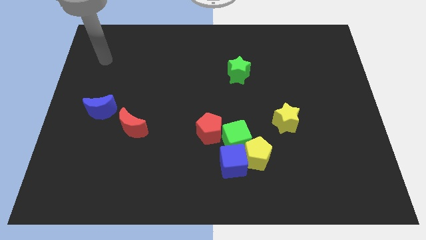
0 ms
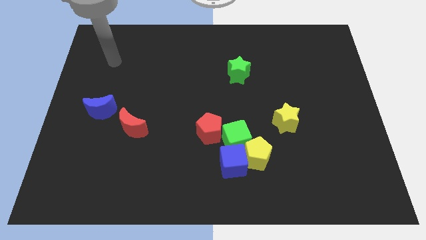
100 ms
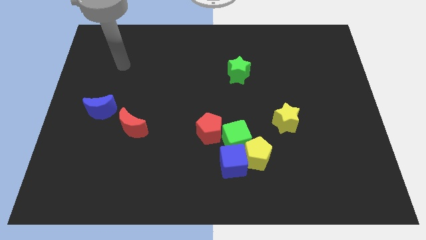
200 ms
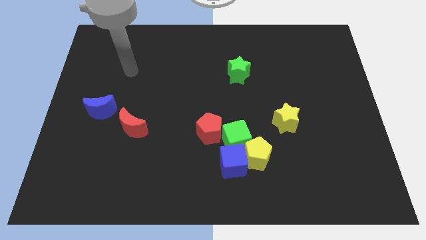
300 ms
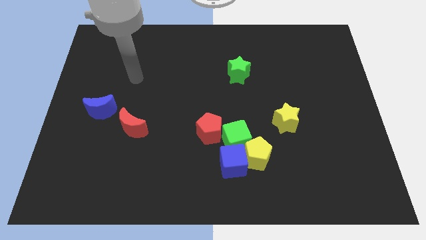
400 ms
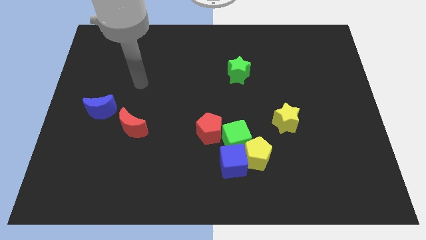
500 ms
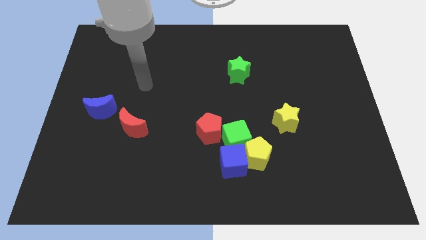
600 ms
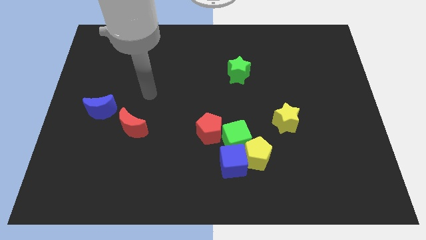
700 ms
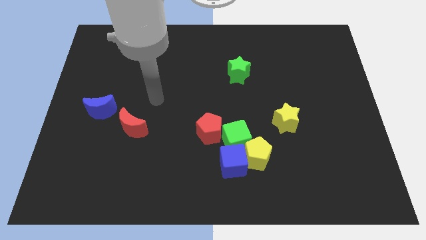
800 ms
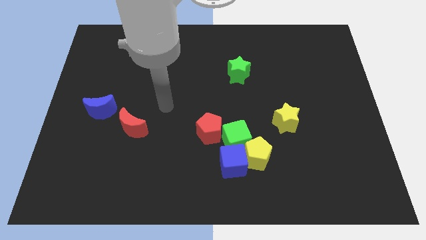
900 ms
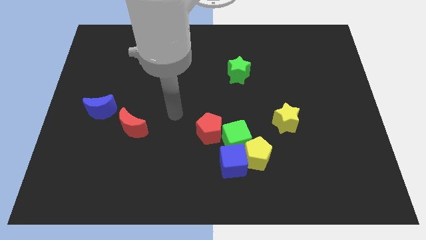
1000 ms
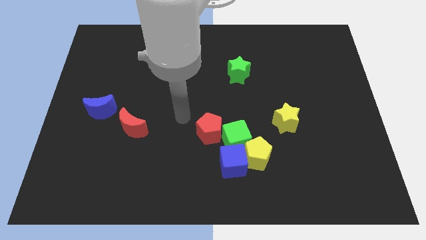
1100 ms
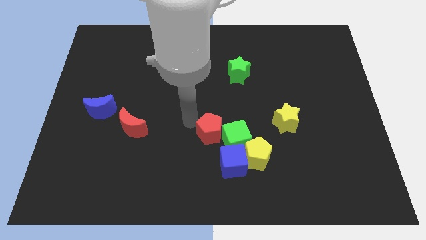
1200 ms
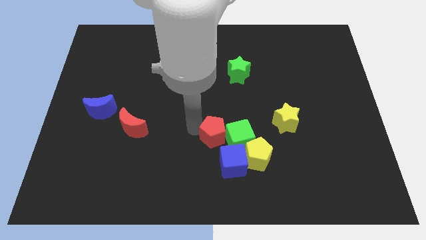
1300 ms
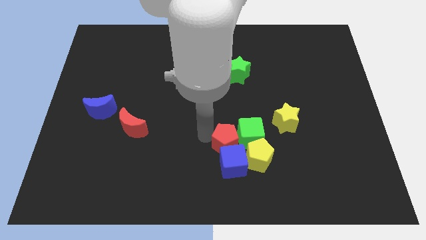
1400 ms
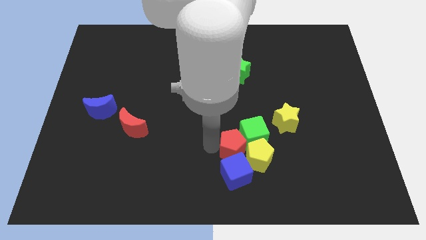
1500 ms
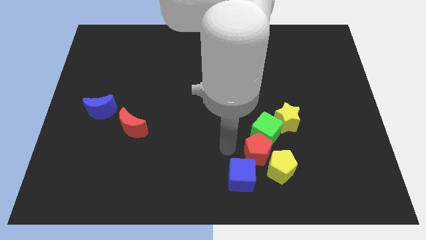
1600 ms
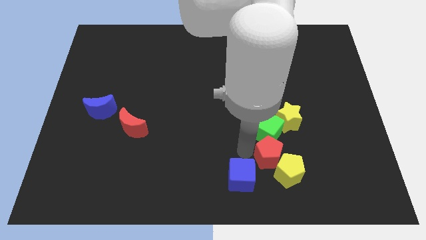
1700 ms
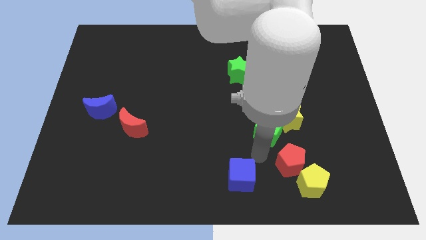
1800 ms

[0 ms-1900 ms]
pull the yellow pentagon apart from the blue cube and green cube

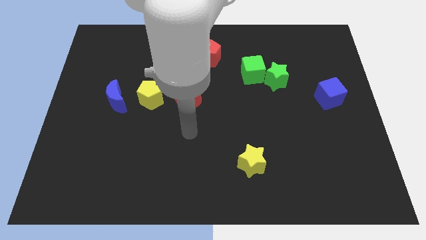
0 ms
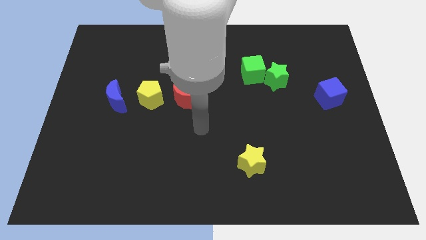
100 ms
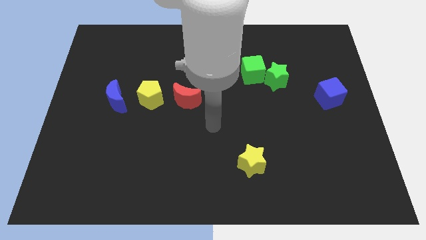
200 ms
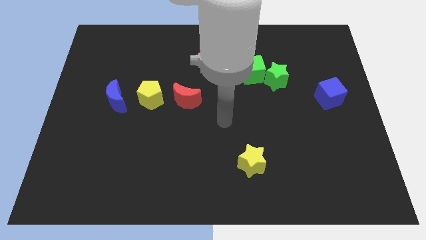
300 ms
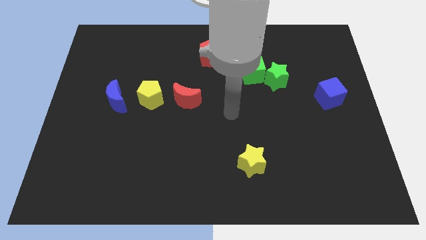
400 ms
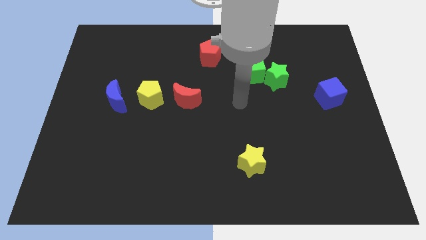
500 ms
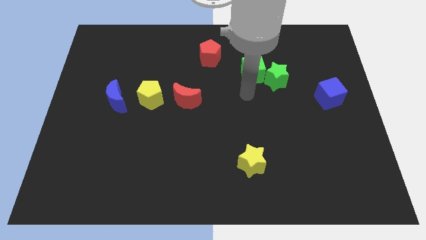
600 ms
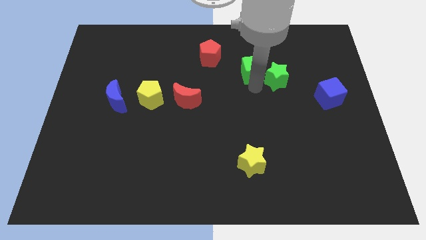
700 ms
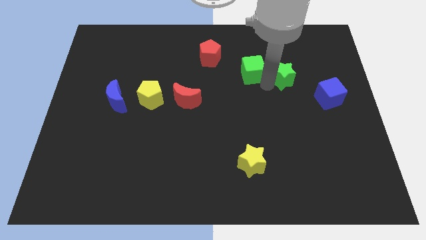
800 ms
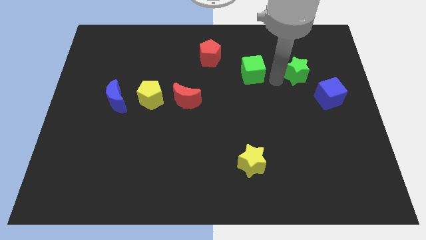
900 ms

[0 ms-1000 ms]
separate the green cube from the green star

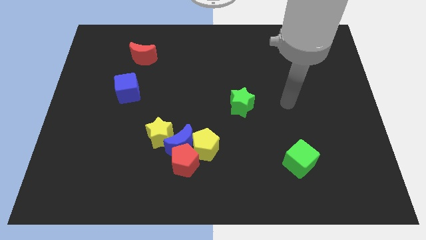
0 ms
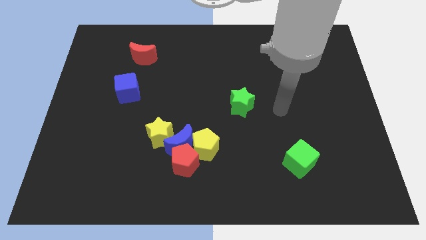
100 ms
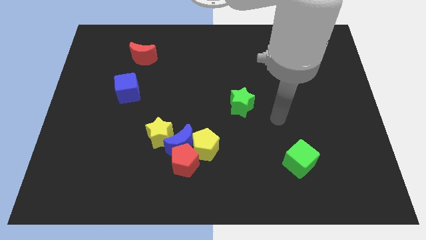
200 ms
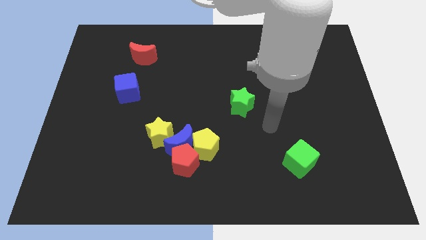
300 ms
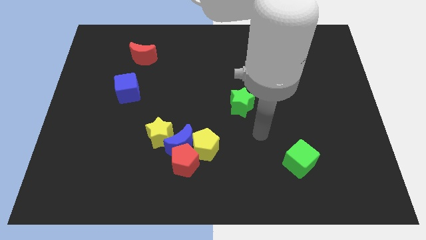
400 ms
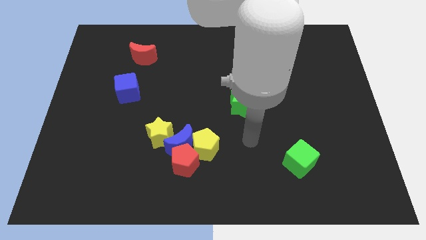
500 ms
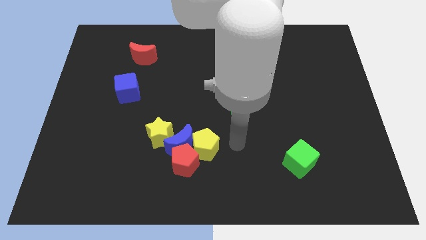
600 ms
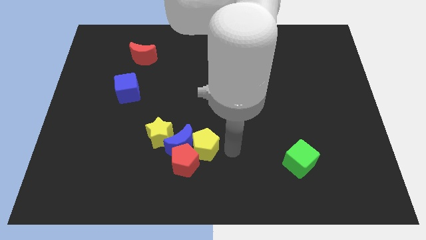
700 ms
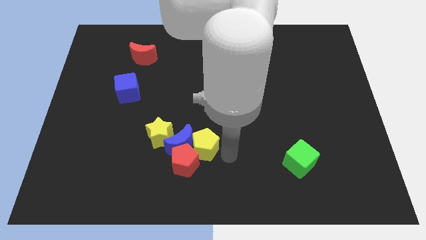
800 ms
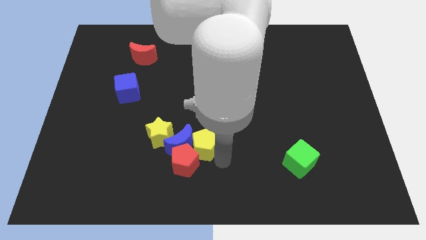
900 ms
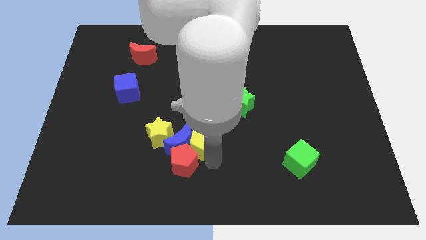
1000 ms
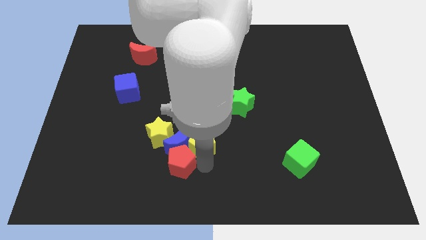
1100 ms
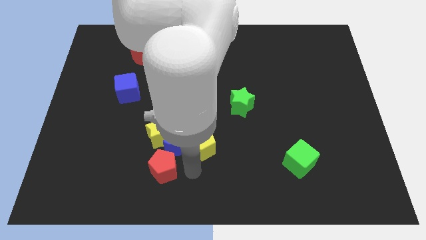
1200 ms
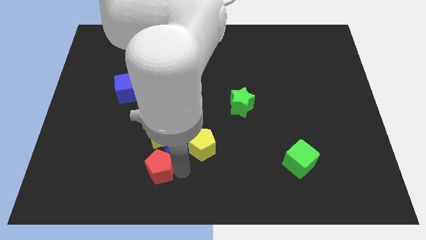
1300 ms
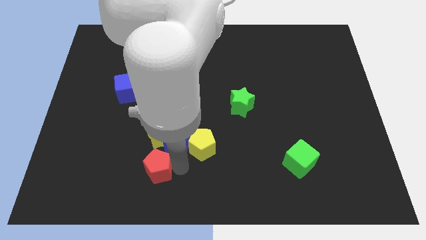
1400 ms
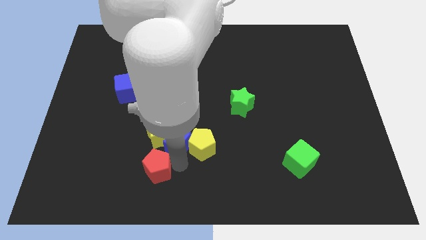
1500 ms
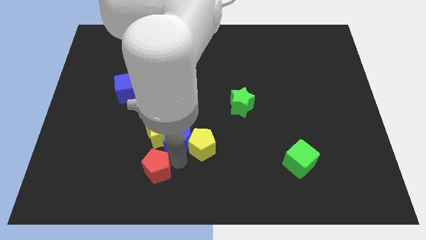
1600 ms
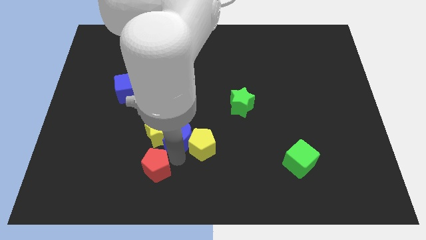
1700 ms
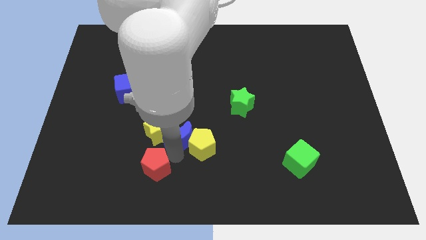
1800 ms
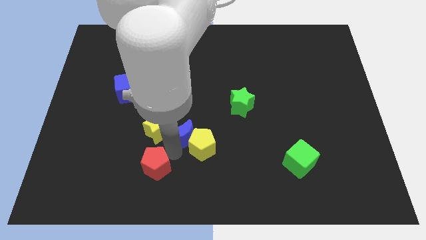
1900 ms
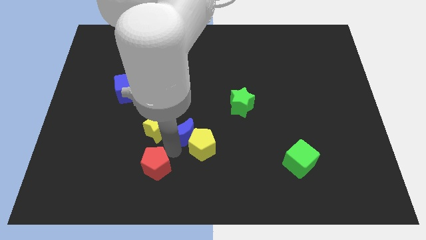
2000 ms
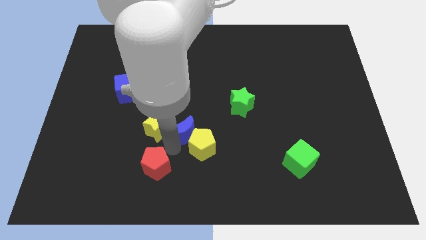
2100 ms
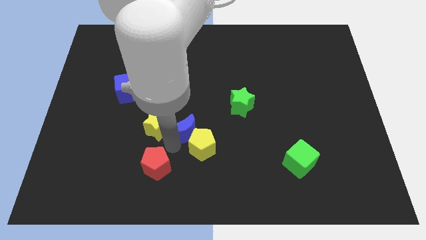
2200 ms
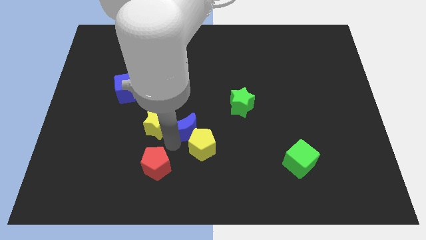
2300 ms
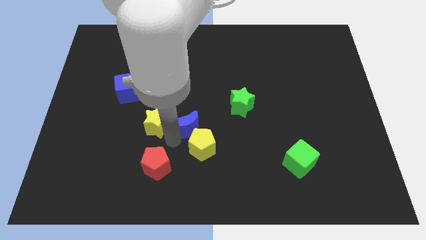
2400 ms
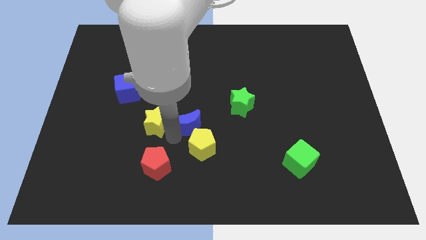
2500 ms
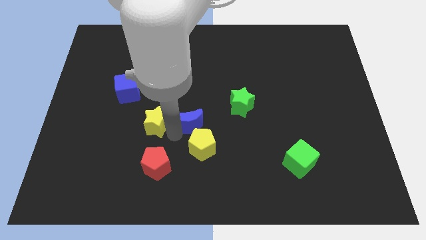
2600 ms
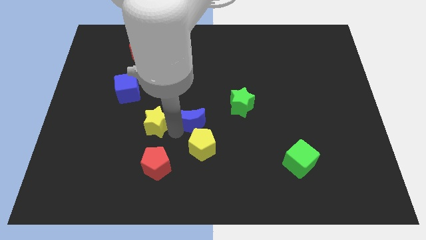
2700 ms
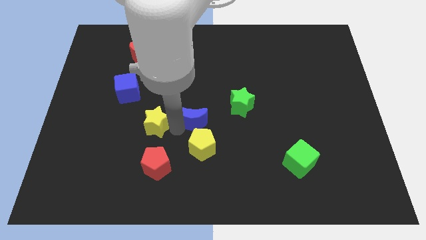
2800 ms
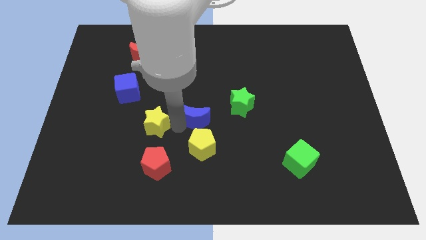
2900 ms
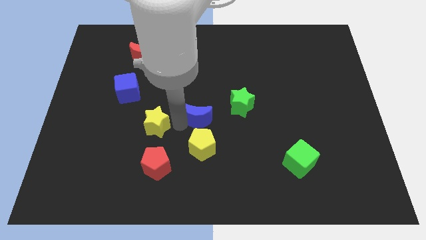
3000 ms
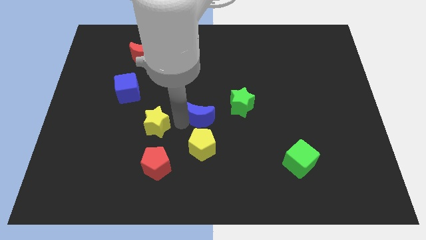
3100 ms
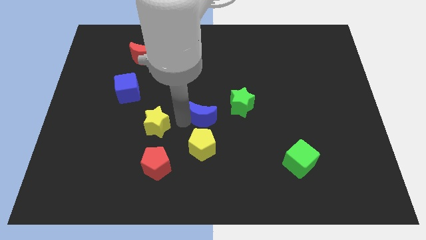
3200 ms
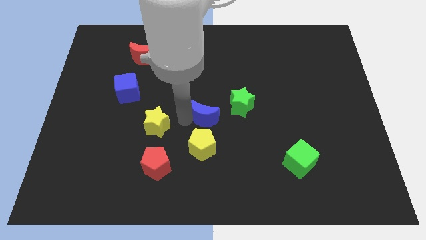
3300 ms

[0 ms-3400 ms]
pull the blue moon apart from the red pentagon, yellow pentagon, and yellow star

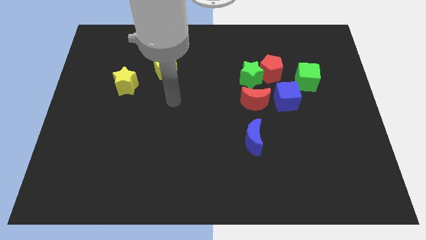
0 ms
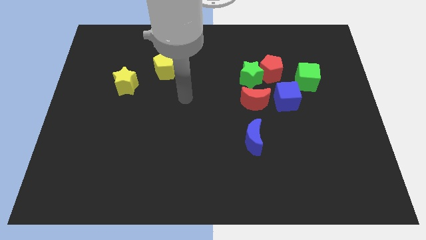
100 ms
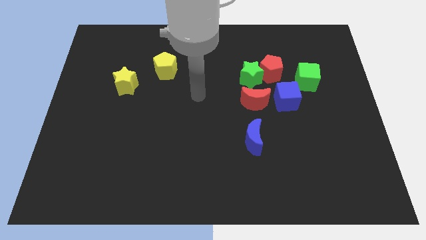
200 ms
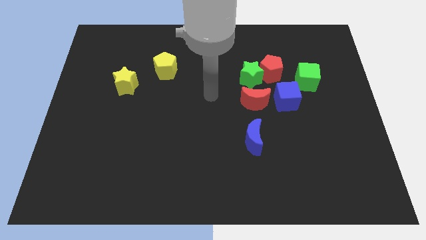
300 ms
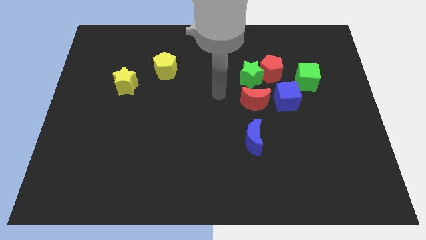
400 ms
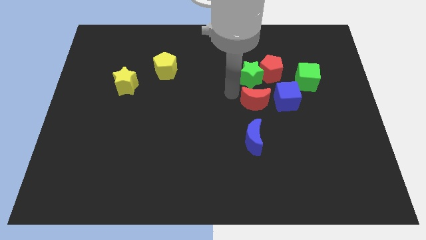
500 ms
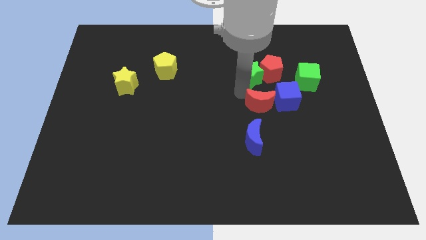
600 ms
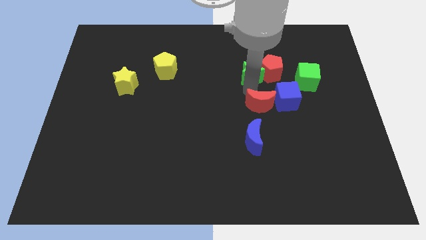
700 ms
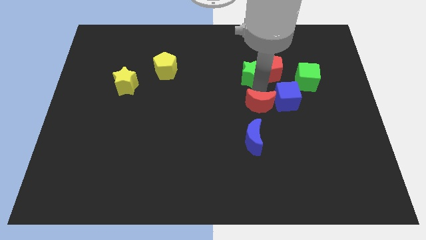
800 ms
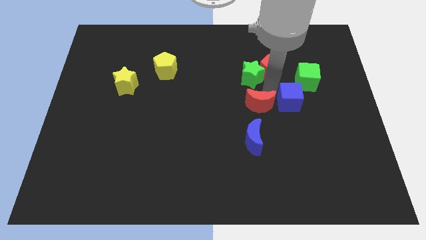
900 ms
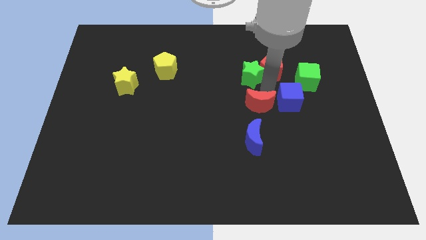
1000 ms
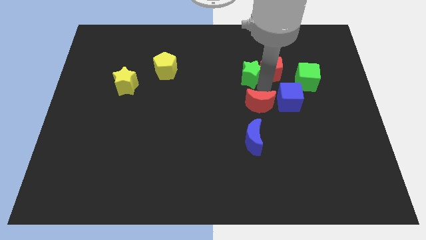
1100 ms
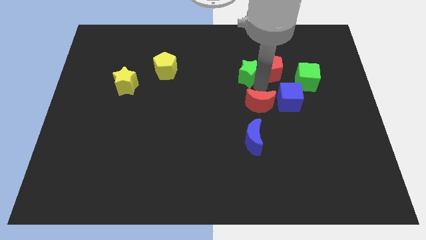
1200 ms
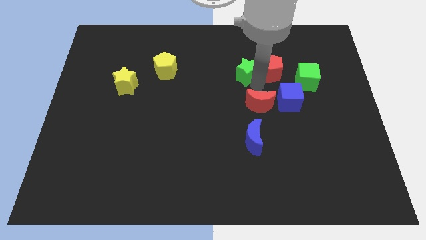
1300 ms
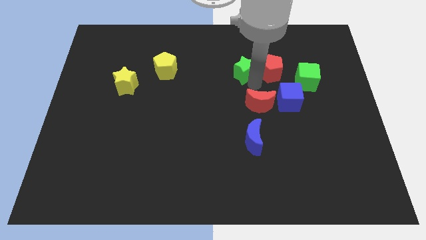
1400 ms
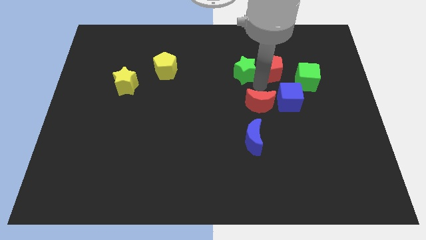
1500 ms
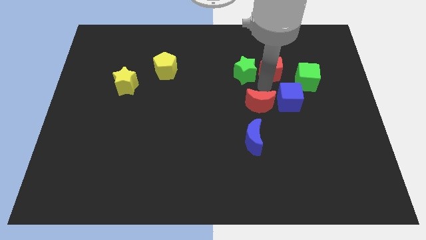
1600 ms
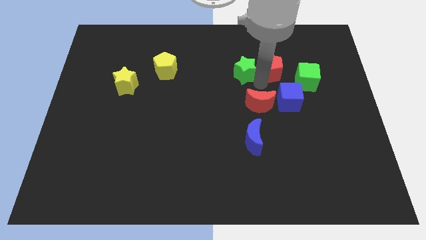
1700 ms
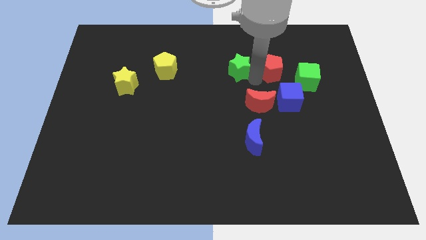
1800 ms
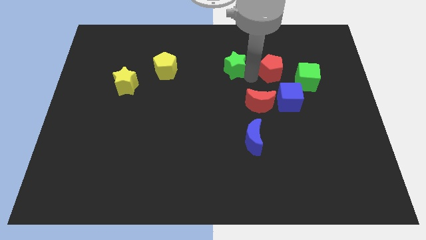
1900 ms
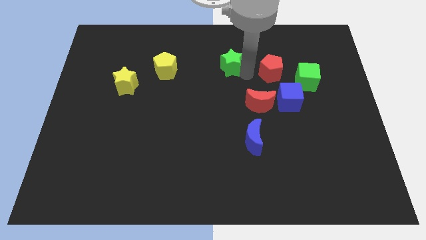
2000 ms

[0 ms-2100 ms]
pull the green star apart from the red pentagon and red moon

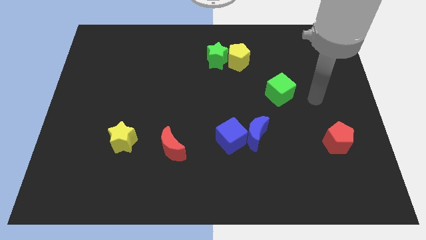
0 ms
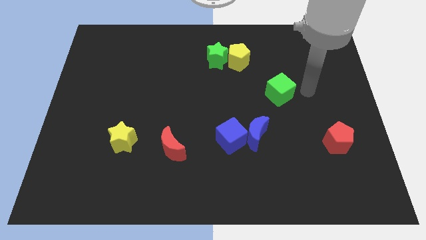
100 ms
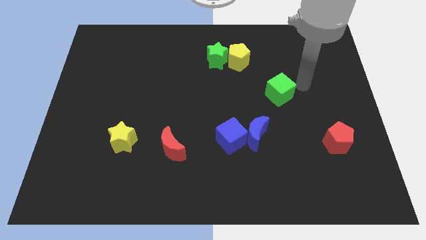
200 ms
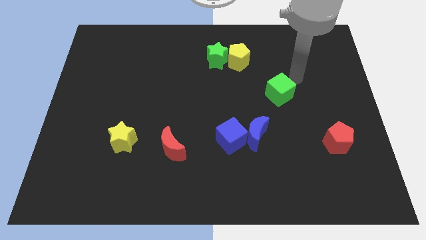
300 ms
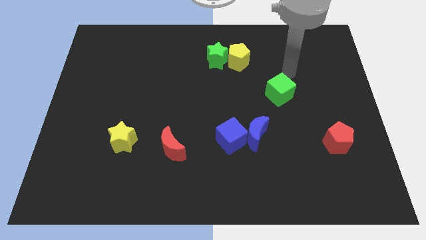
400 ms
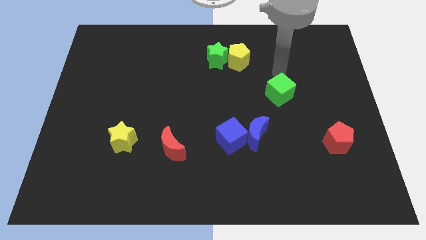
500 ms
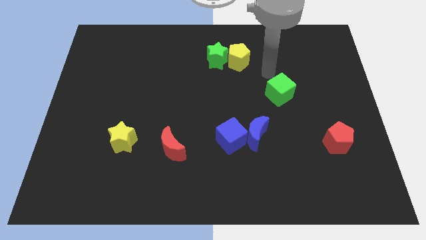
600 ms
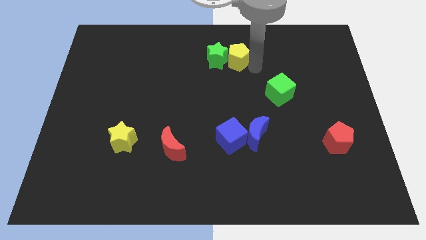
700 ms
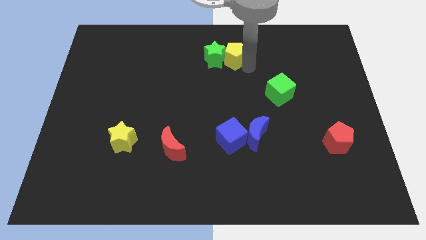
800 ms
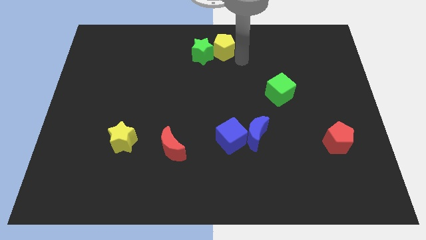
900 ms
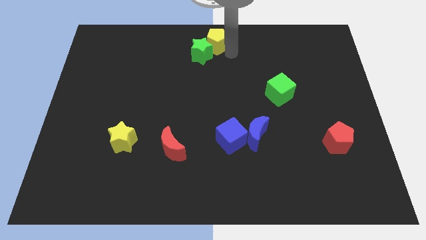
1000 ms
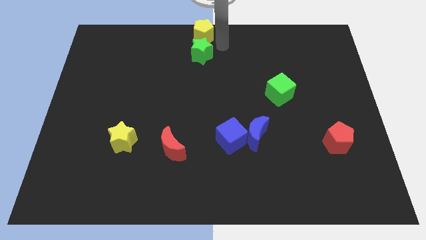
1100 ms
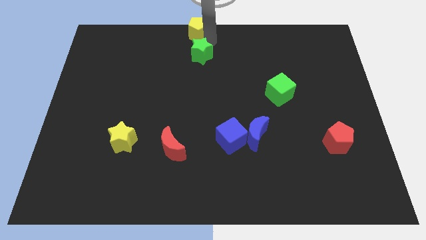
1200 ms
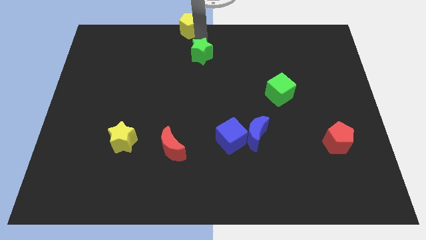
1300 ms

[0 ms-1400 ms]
move the green star away from the yellow pentagon
